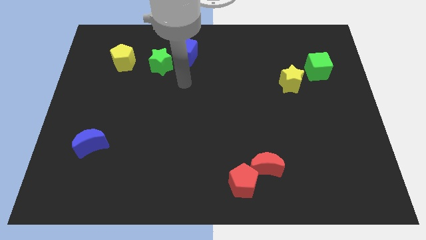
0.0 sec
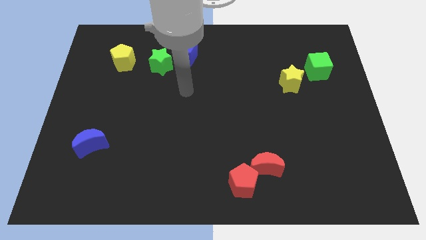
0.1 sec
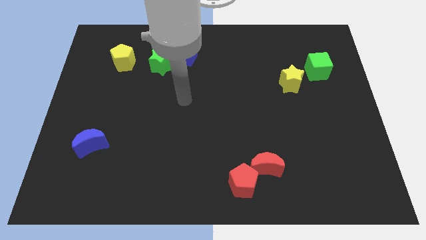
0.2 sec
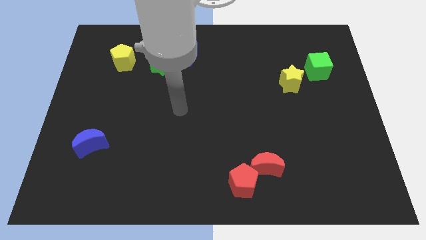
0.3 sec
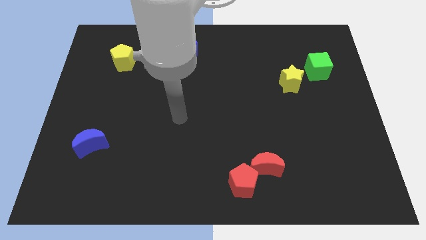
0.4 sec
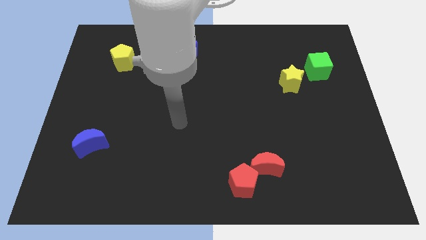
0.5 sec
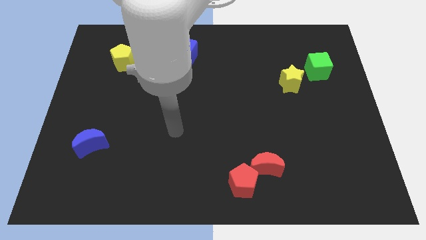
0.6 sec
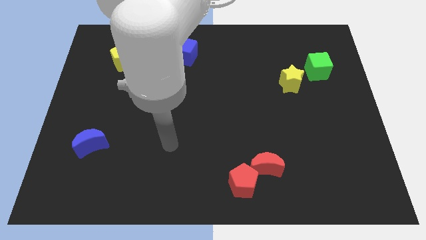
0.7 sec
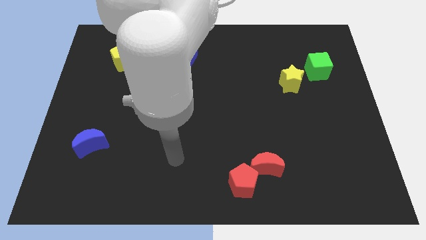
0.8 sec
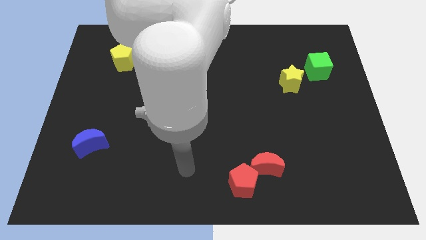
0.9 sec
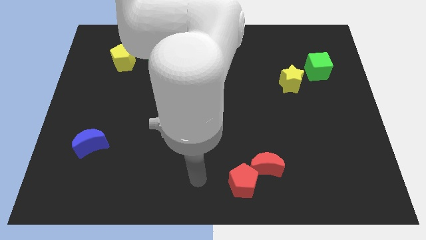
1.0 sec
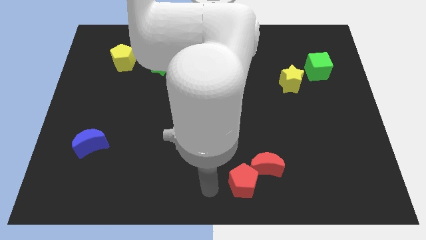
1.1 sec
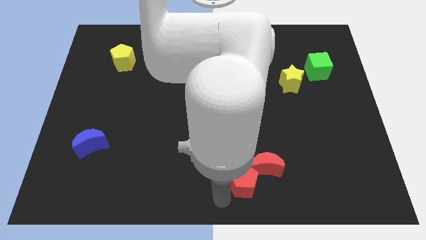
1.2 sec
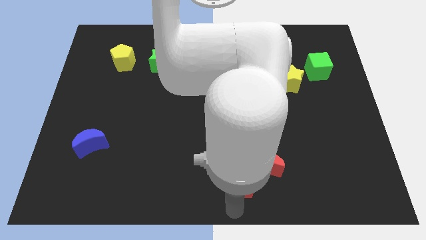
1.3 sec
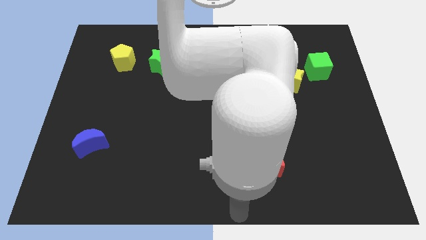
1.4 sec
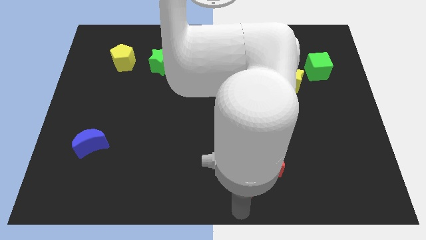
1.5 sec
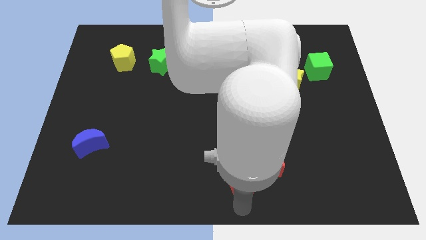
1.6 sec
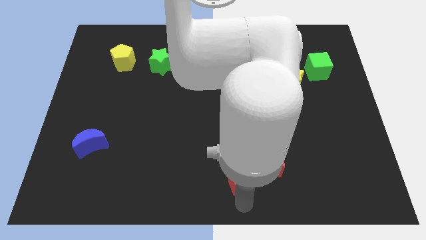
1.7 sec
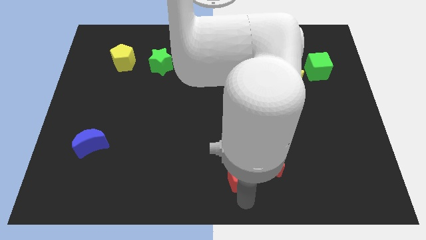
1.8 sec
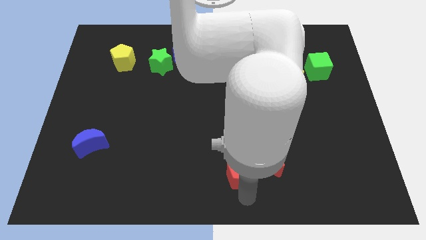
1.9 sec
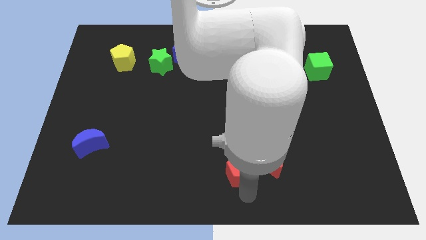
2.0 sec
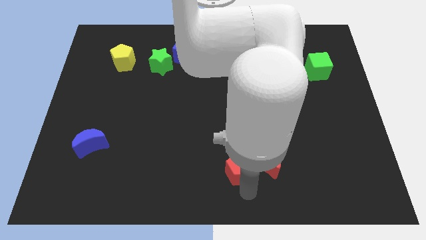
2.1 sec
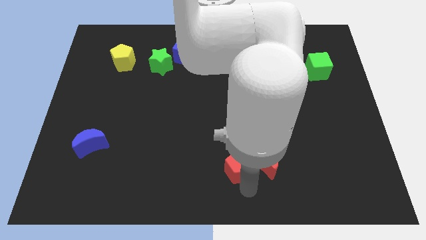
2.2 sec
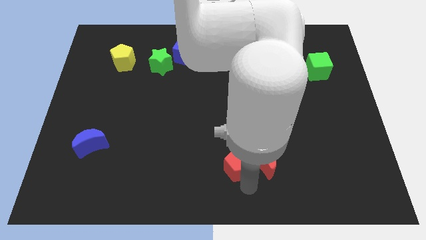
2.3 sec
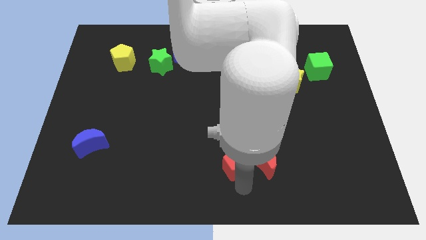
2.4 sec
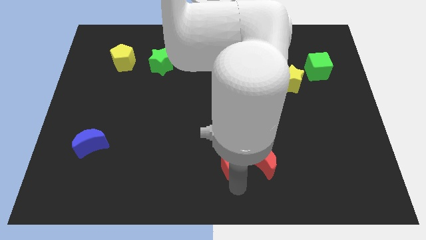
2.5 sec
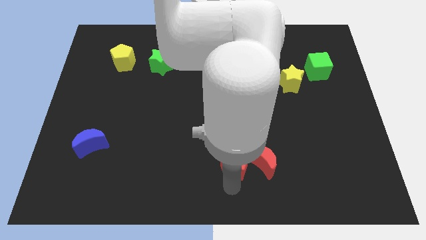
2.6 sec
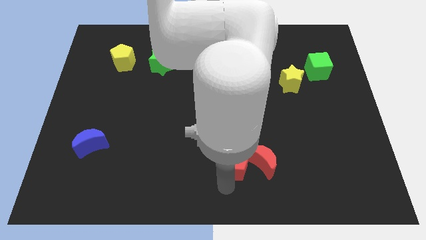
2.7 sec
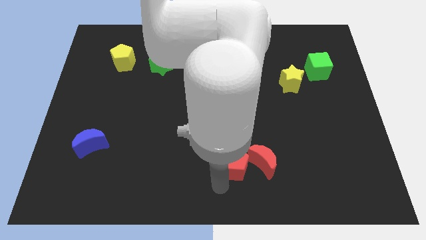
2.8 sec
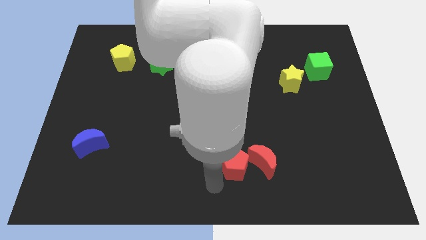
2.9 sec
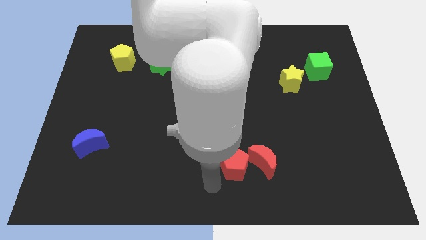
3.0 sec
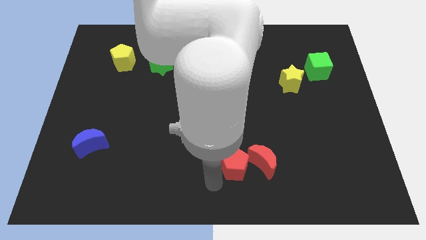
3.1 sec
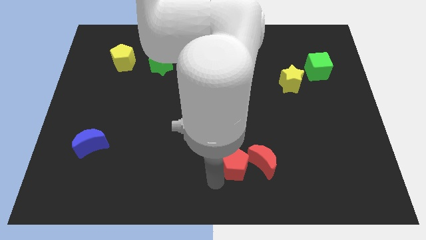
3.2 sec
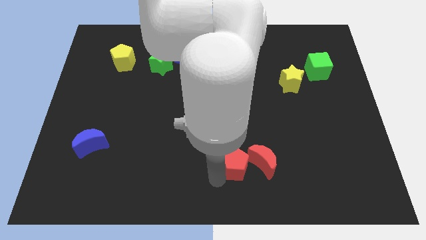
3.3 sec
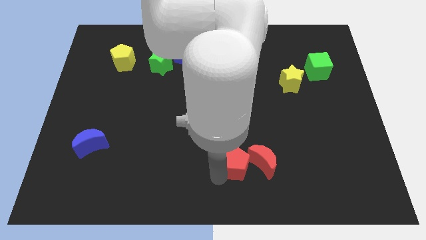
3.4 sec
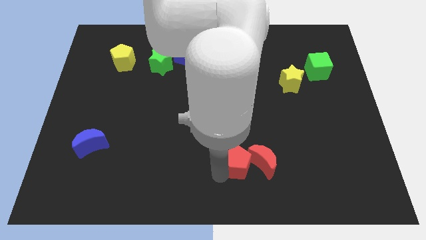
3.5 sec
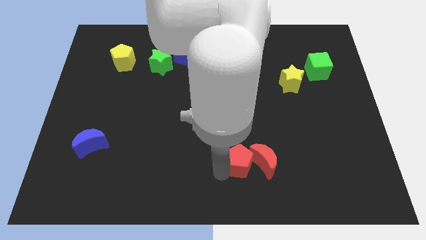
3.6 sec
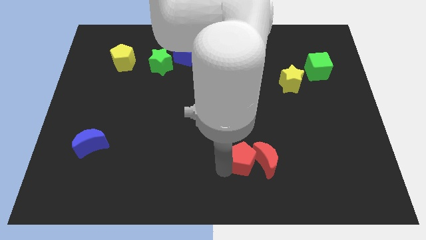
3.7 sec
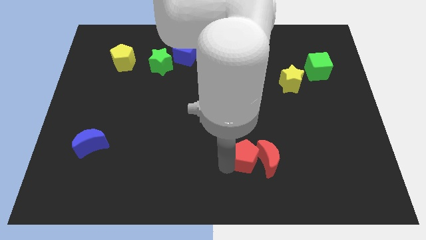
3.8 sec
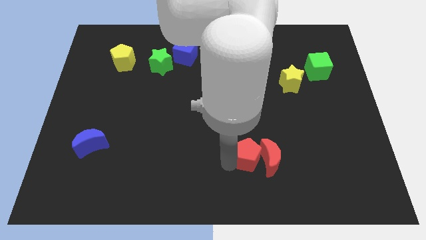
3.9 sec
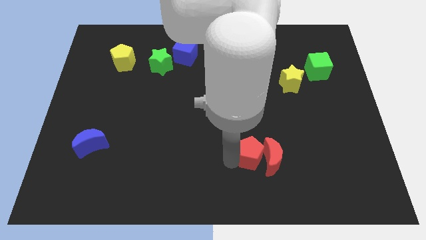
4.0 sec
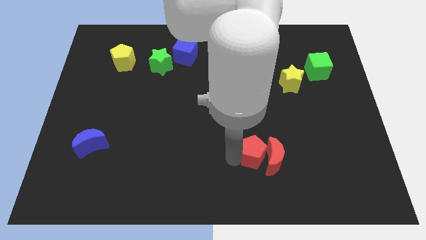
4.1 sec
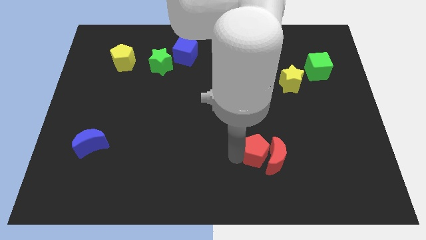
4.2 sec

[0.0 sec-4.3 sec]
move the red pentagon diagonally up and right a little bit

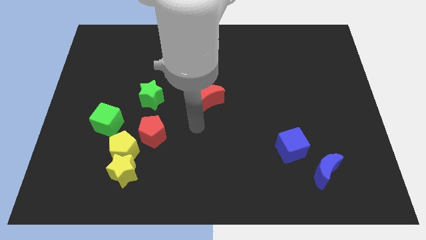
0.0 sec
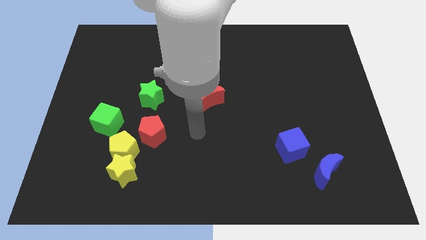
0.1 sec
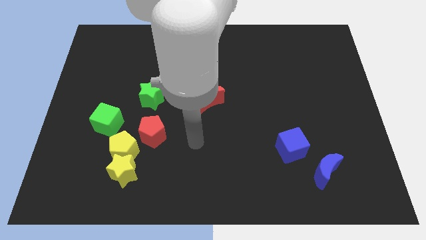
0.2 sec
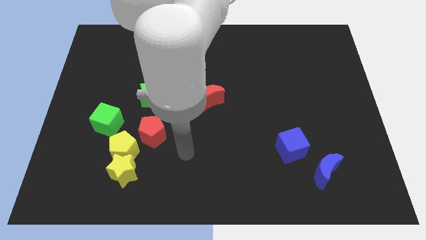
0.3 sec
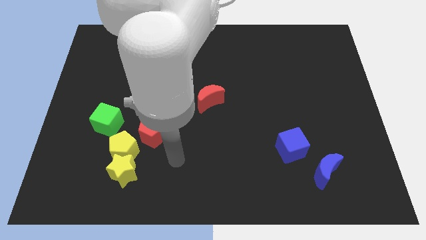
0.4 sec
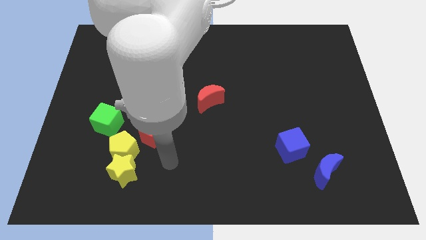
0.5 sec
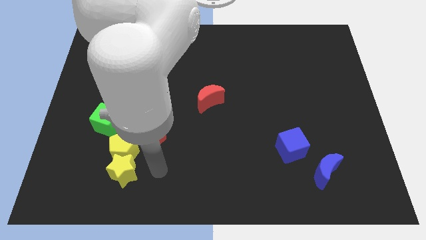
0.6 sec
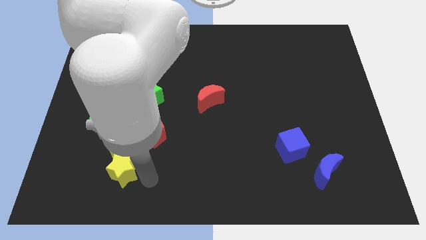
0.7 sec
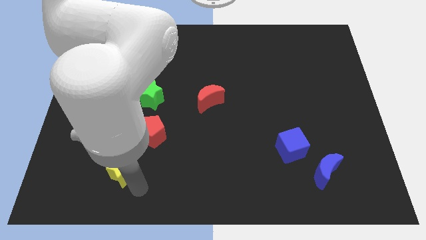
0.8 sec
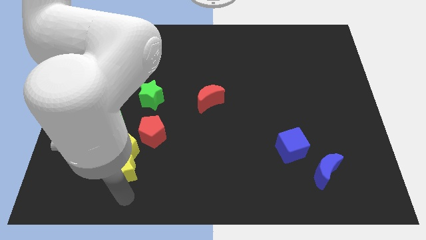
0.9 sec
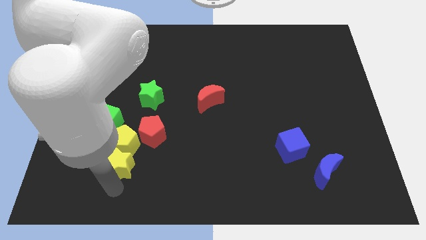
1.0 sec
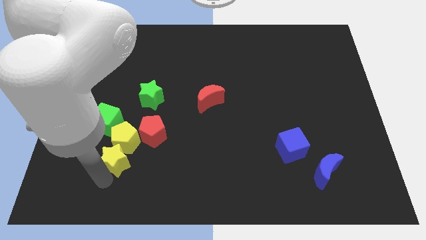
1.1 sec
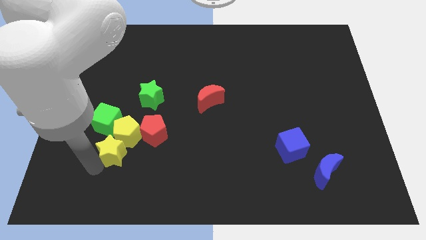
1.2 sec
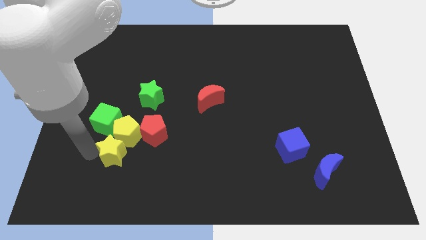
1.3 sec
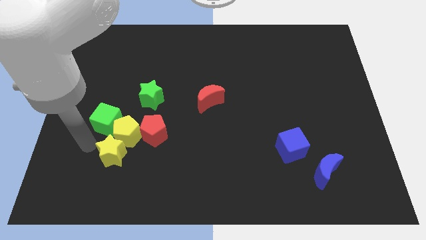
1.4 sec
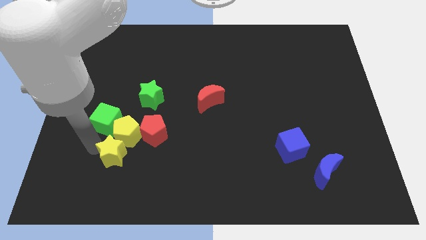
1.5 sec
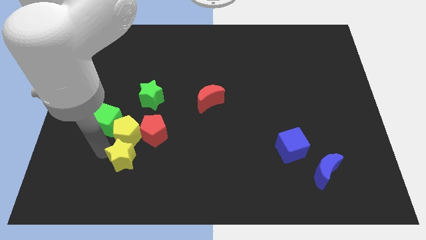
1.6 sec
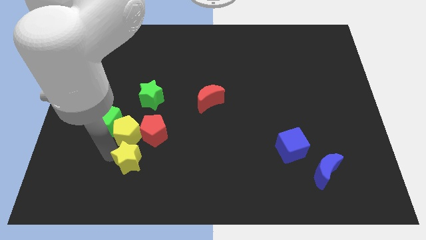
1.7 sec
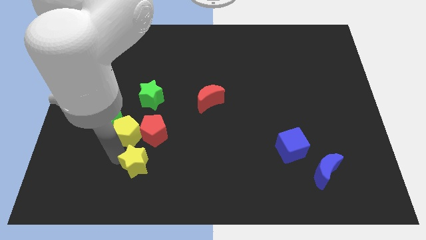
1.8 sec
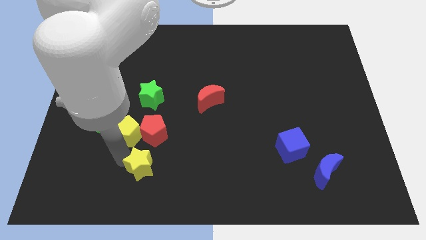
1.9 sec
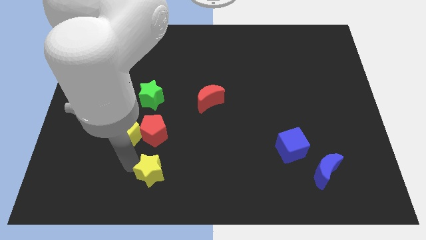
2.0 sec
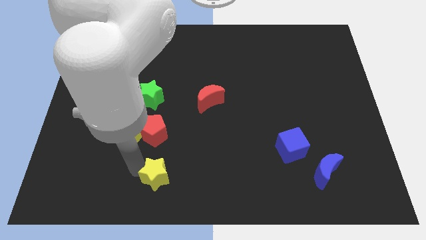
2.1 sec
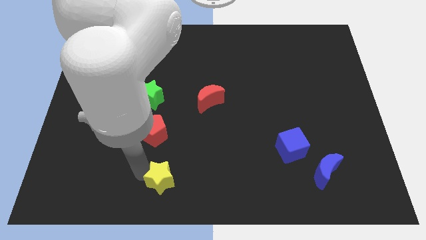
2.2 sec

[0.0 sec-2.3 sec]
slightly move the yellow star right

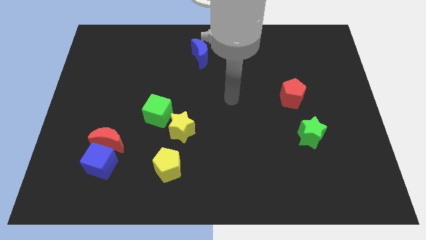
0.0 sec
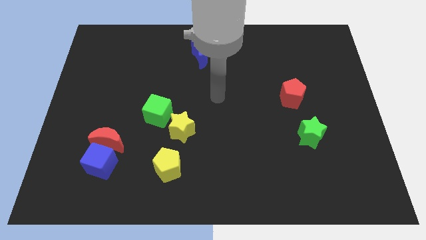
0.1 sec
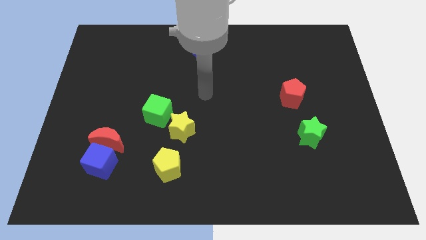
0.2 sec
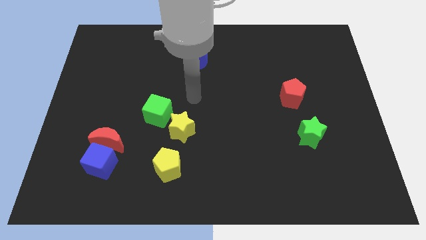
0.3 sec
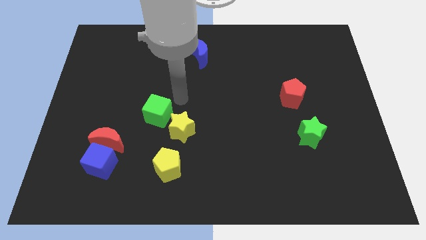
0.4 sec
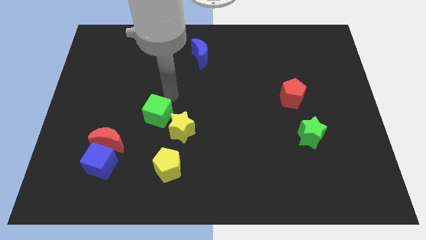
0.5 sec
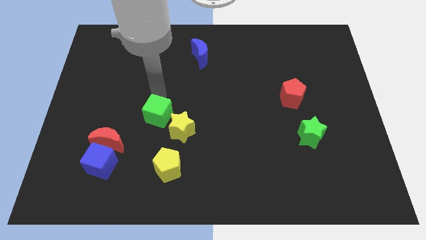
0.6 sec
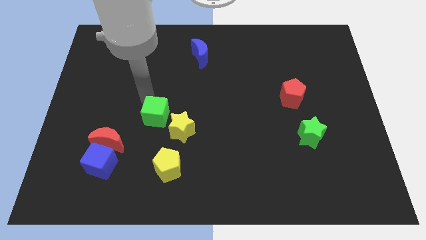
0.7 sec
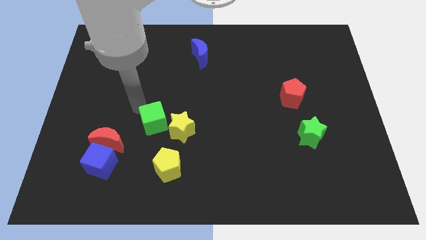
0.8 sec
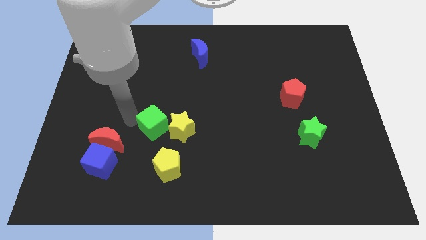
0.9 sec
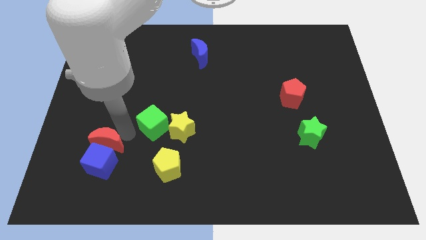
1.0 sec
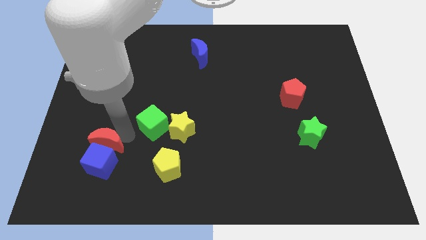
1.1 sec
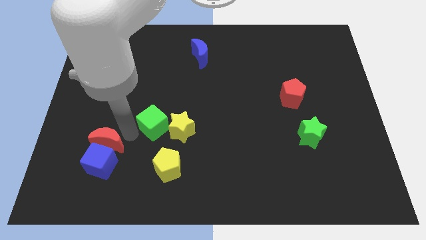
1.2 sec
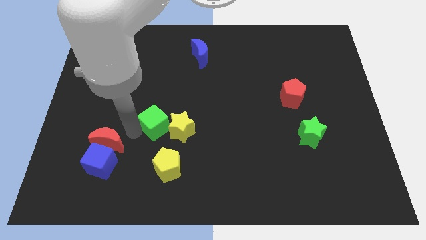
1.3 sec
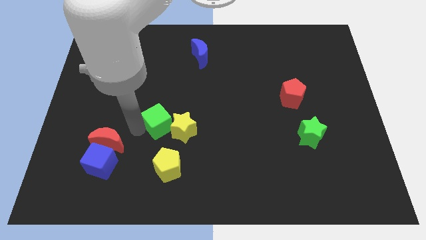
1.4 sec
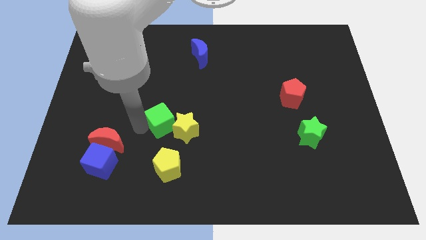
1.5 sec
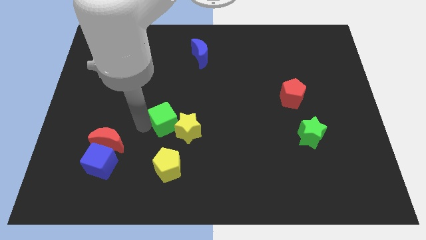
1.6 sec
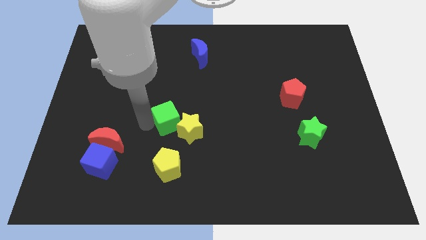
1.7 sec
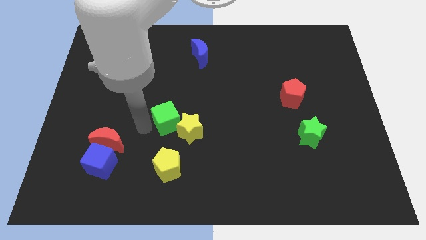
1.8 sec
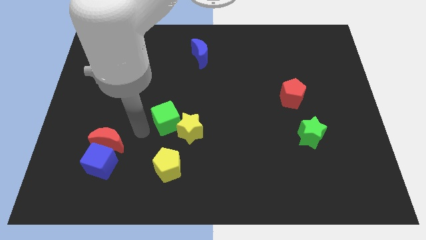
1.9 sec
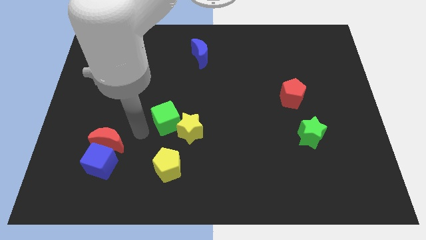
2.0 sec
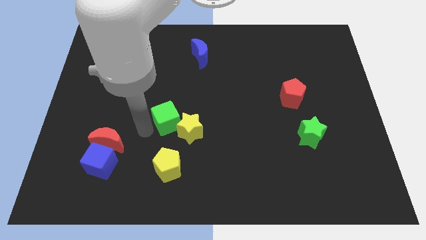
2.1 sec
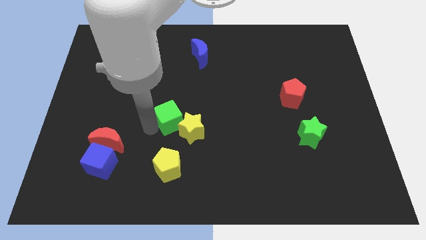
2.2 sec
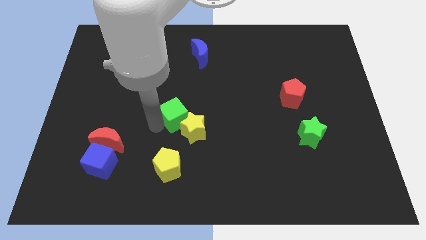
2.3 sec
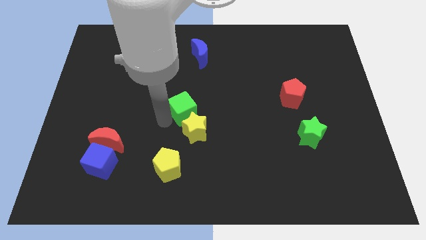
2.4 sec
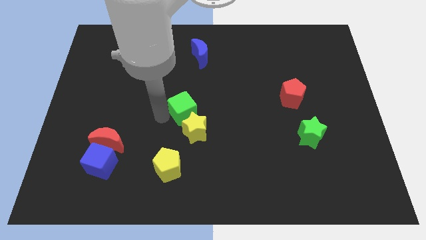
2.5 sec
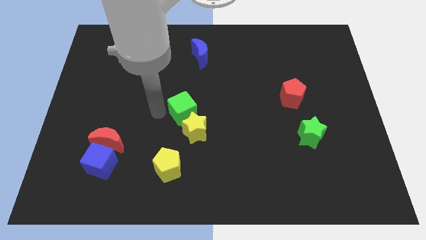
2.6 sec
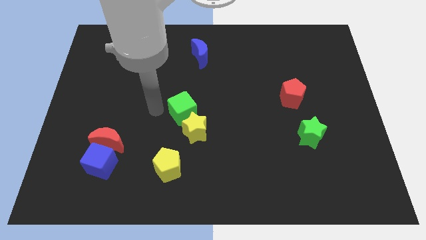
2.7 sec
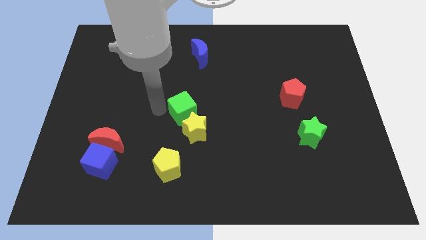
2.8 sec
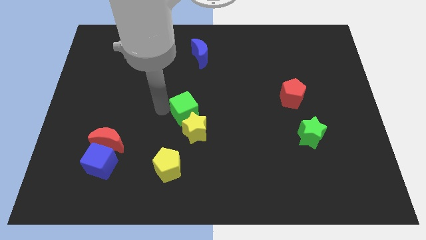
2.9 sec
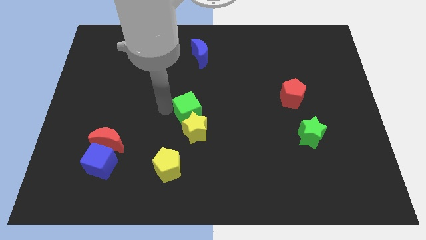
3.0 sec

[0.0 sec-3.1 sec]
slightly move the green cube to the right
